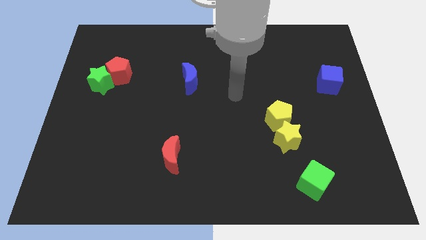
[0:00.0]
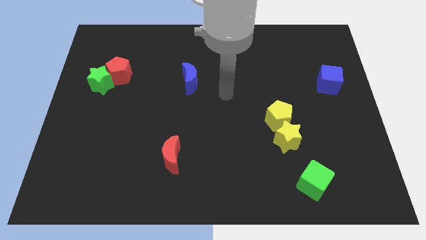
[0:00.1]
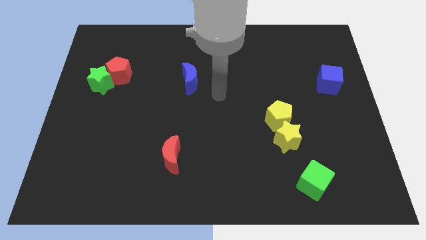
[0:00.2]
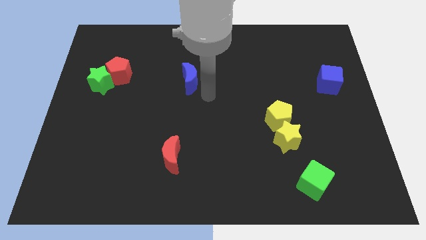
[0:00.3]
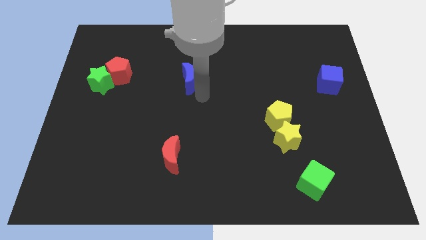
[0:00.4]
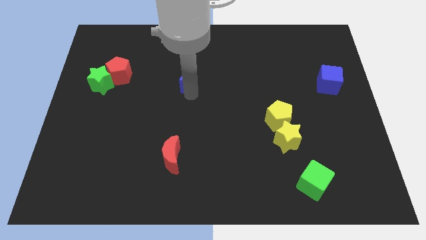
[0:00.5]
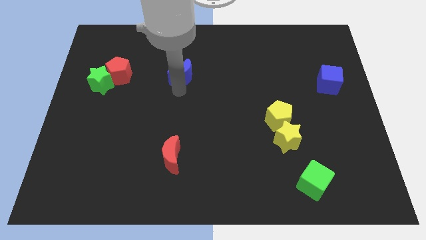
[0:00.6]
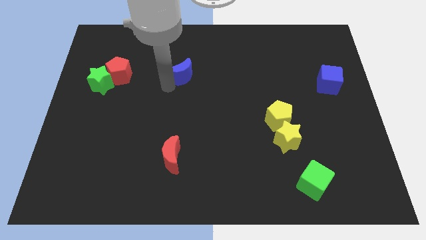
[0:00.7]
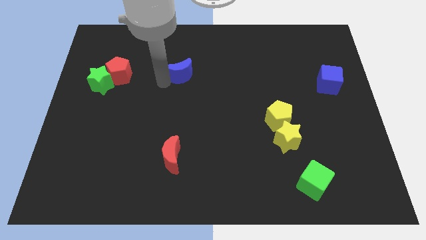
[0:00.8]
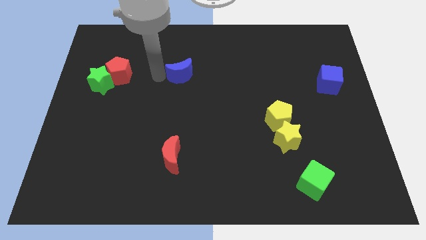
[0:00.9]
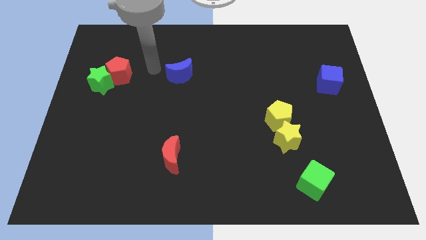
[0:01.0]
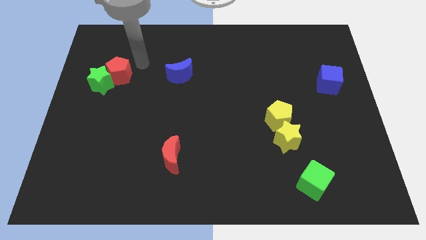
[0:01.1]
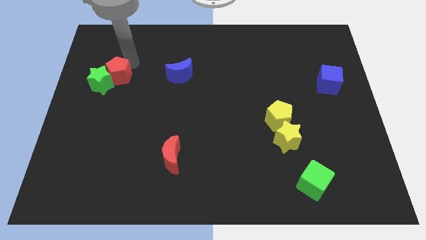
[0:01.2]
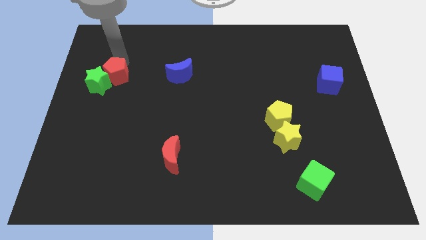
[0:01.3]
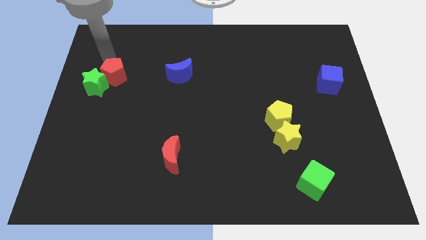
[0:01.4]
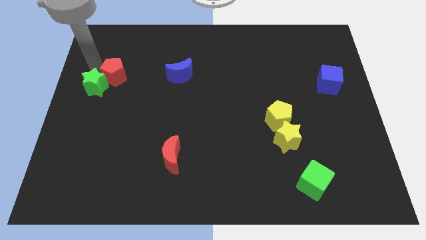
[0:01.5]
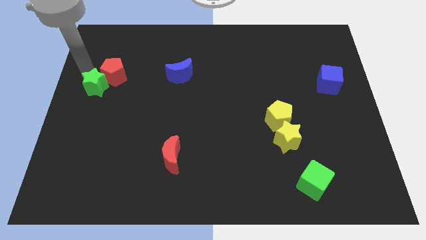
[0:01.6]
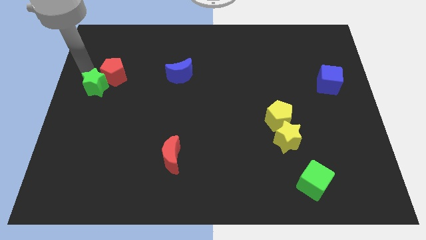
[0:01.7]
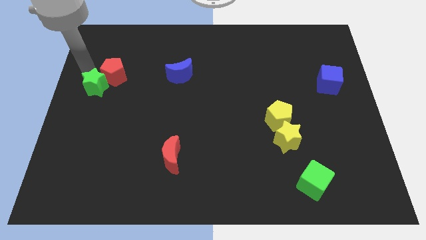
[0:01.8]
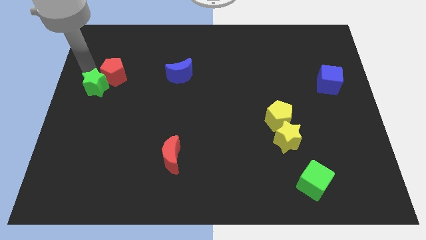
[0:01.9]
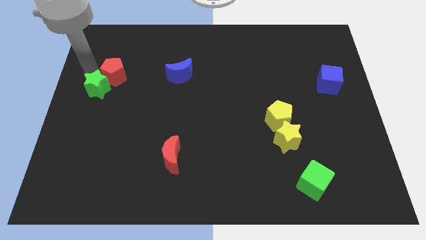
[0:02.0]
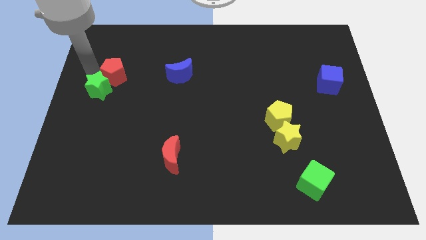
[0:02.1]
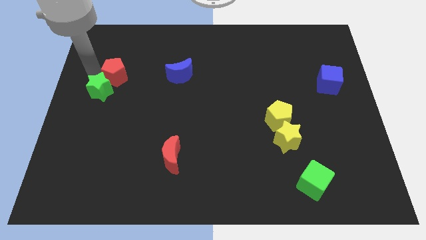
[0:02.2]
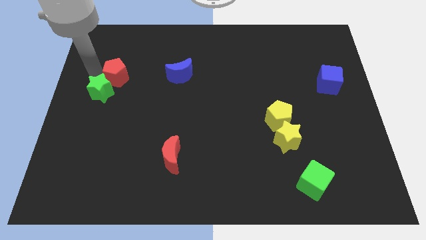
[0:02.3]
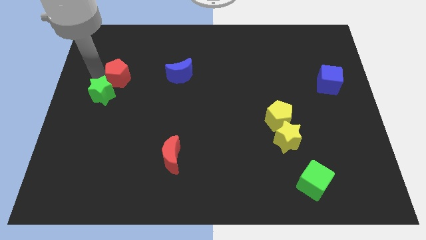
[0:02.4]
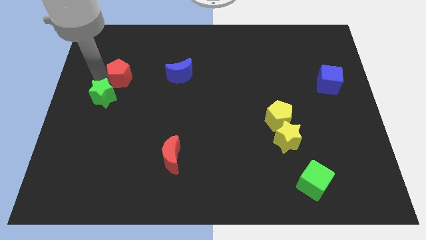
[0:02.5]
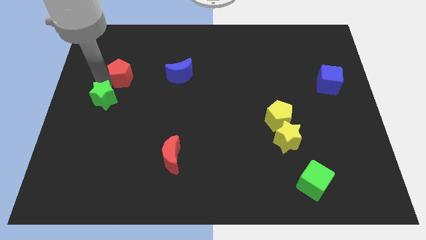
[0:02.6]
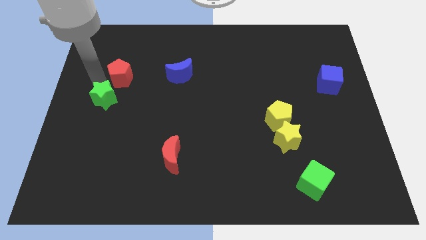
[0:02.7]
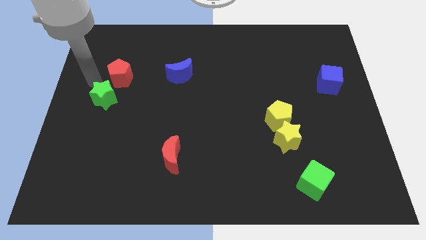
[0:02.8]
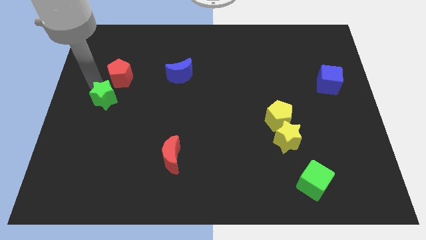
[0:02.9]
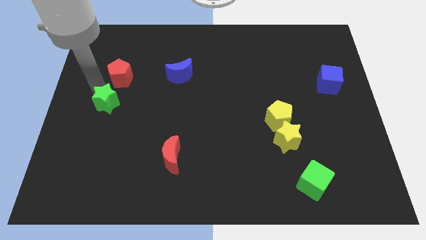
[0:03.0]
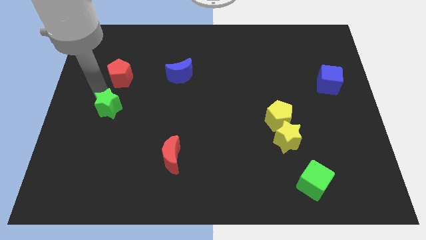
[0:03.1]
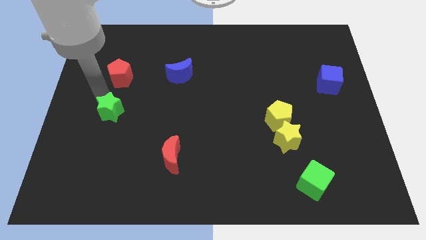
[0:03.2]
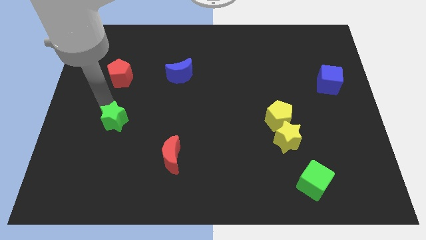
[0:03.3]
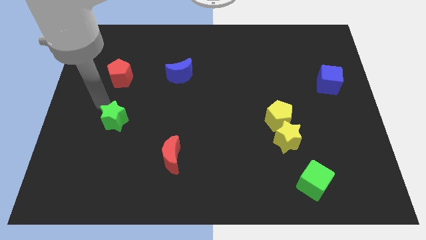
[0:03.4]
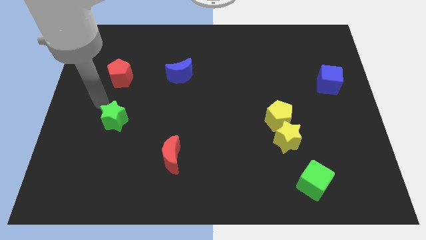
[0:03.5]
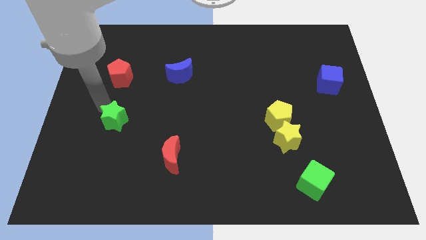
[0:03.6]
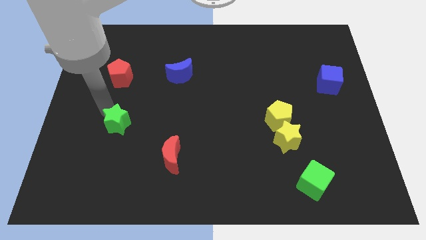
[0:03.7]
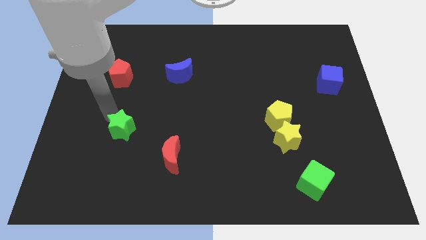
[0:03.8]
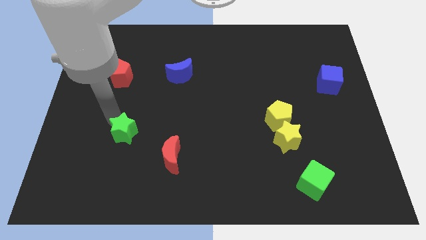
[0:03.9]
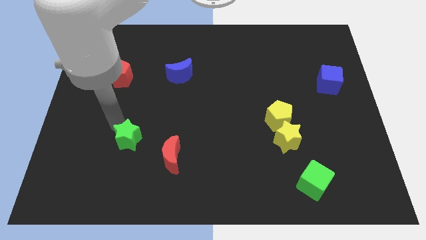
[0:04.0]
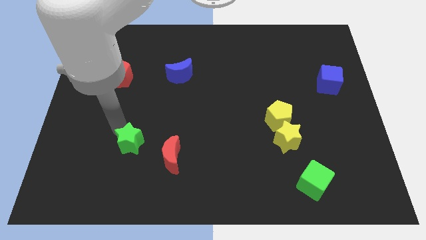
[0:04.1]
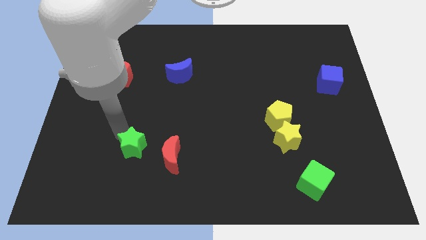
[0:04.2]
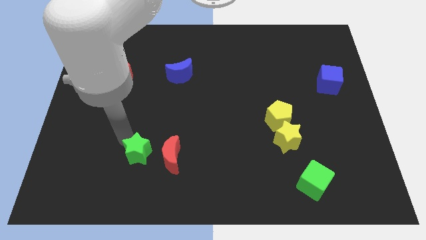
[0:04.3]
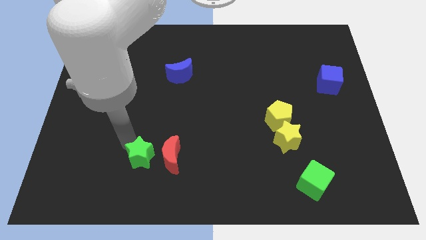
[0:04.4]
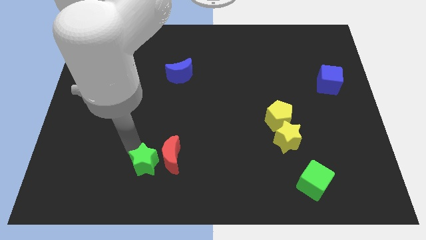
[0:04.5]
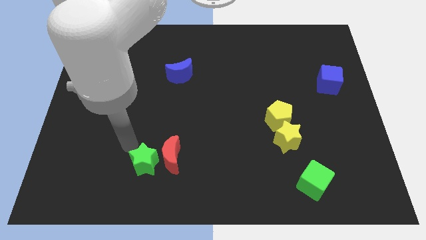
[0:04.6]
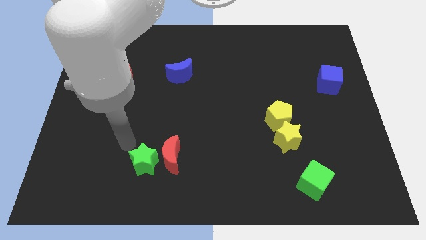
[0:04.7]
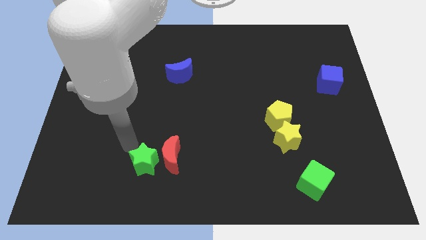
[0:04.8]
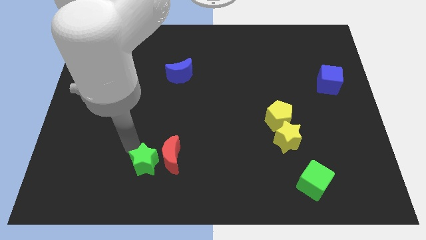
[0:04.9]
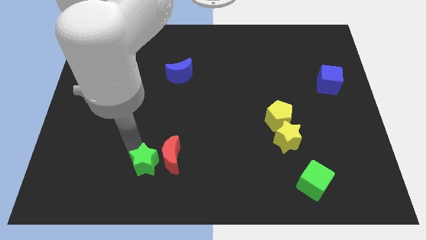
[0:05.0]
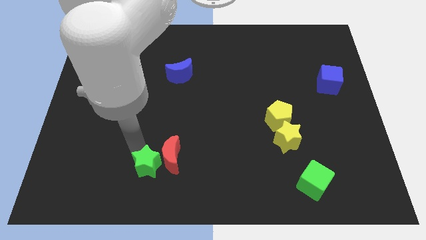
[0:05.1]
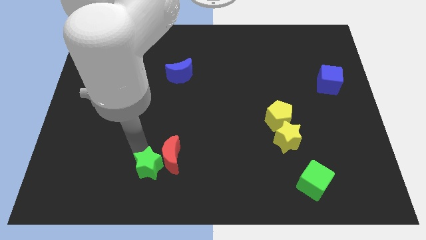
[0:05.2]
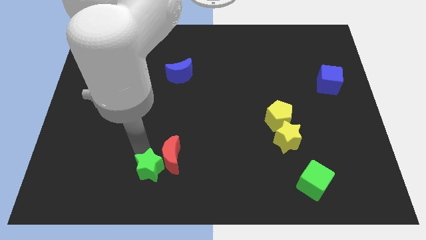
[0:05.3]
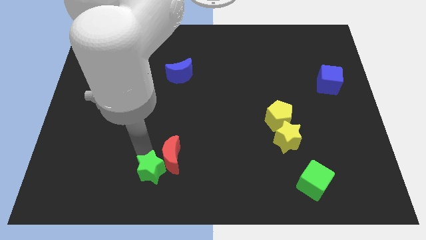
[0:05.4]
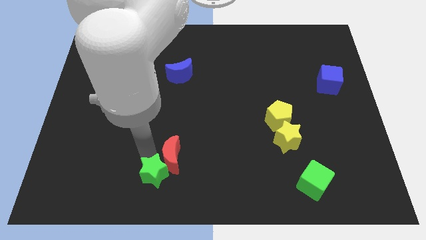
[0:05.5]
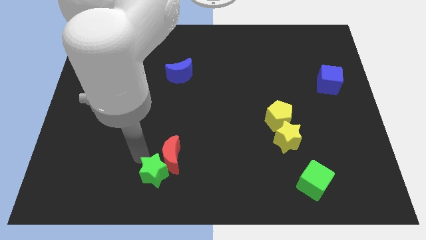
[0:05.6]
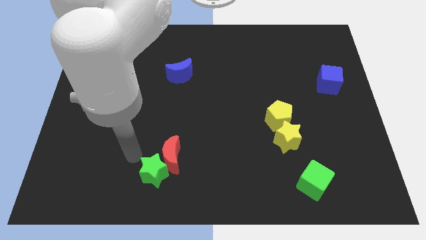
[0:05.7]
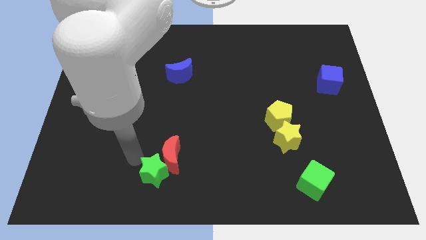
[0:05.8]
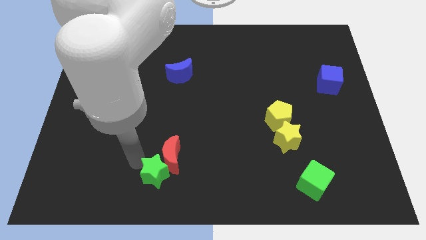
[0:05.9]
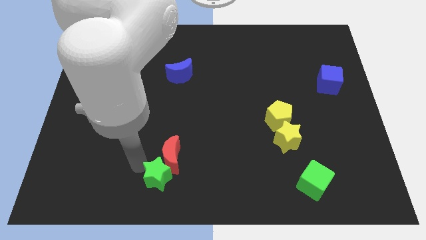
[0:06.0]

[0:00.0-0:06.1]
move the green star to the bottom side

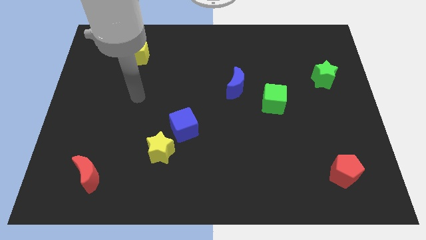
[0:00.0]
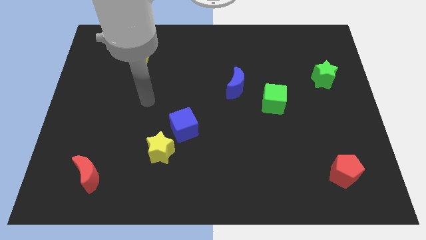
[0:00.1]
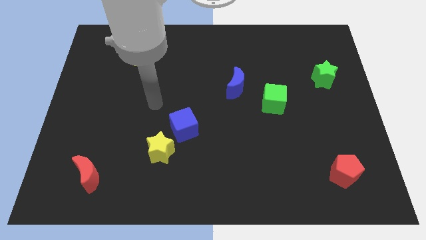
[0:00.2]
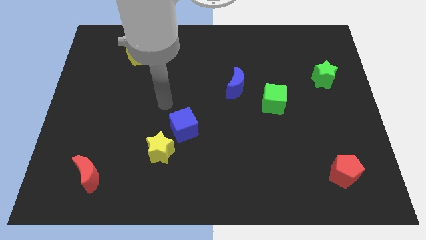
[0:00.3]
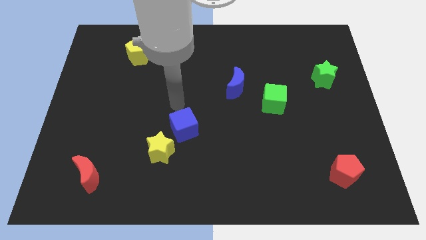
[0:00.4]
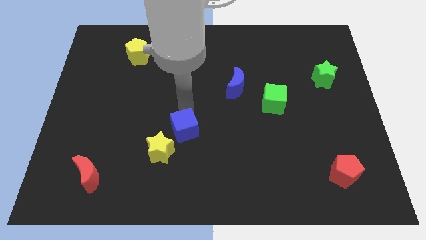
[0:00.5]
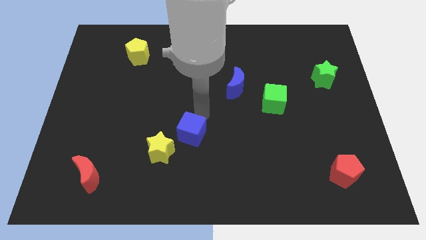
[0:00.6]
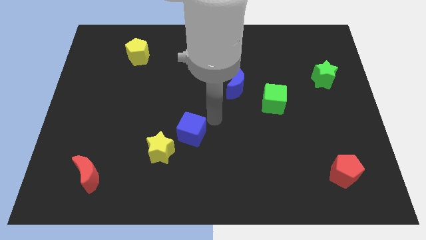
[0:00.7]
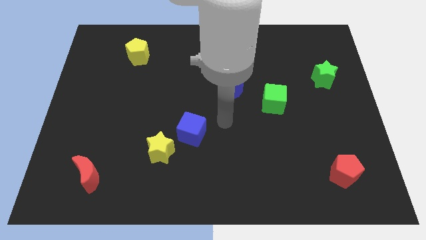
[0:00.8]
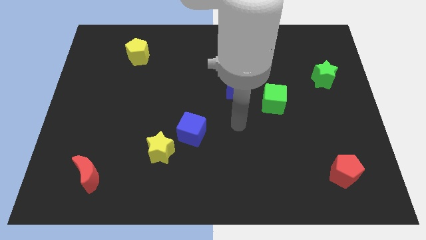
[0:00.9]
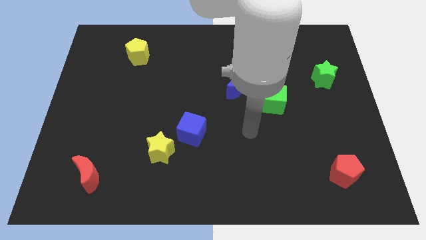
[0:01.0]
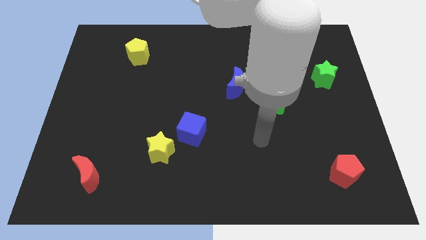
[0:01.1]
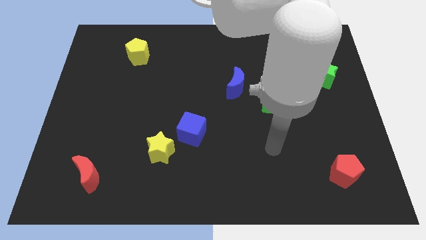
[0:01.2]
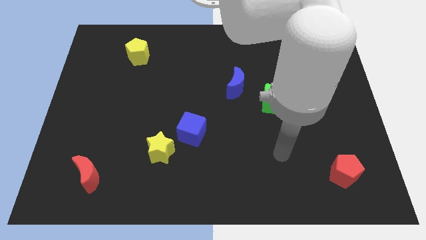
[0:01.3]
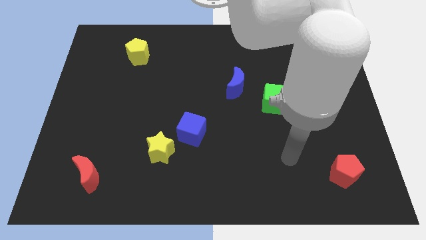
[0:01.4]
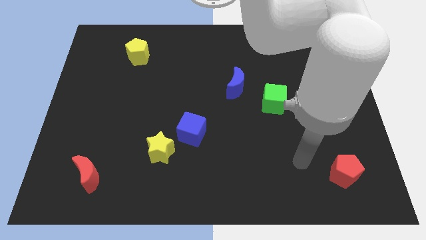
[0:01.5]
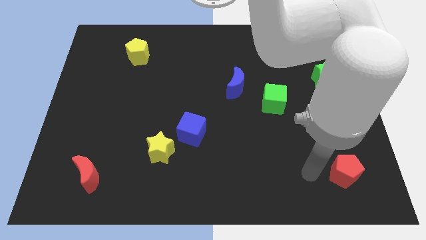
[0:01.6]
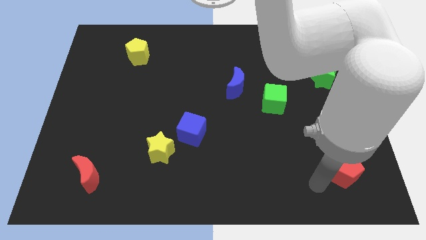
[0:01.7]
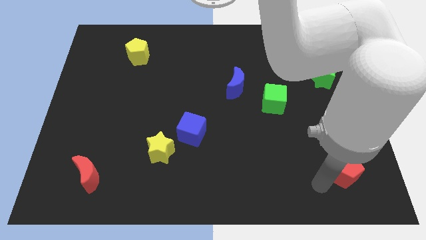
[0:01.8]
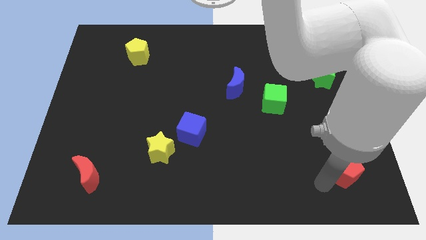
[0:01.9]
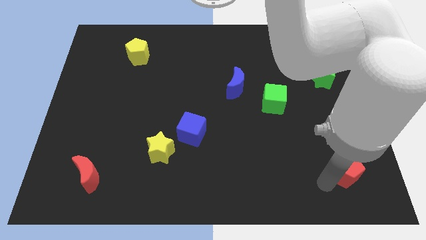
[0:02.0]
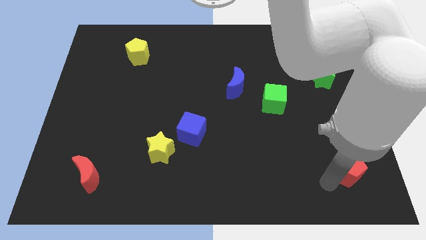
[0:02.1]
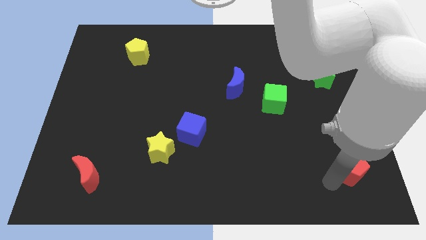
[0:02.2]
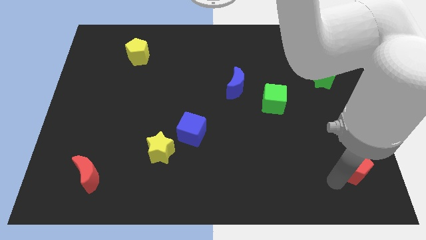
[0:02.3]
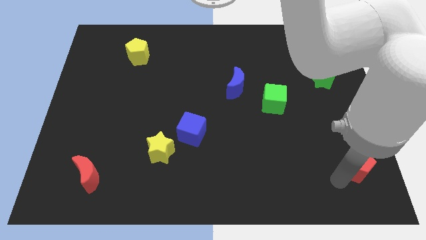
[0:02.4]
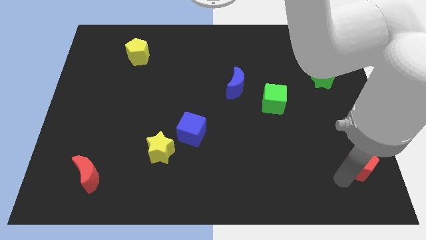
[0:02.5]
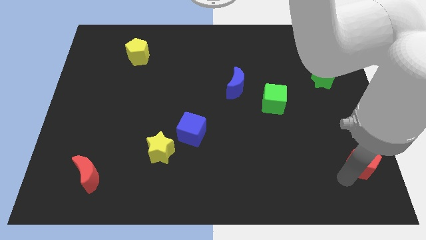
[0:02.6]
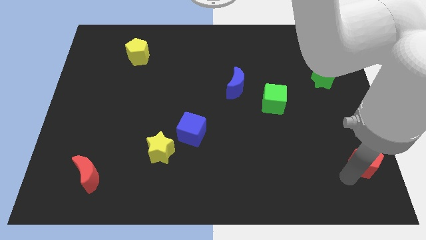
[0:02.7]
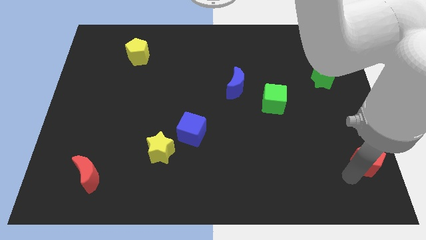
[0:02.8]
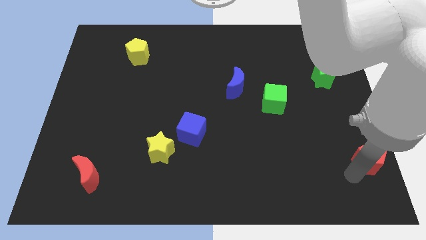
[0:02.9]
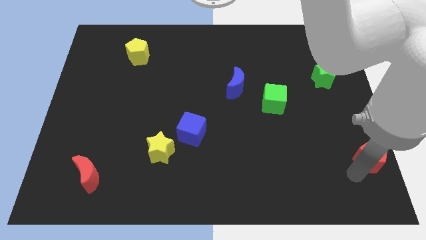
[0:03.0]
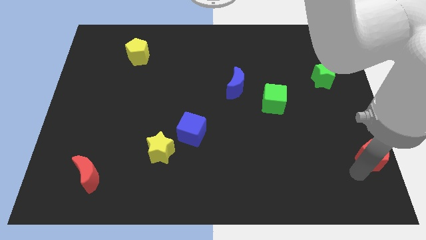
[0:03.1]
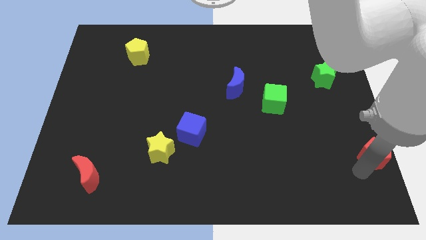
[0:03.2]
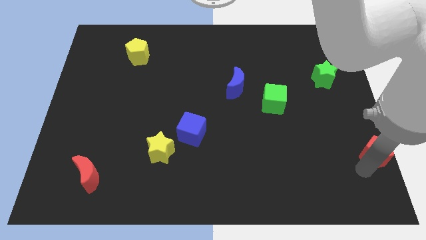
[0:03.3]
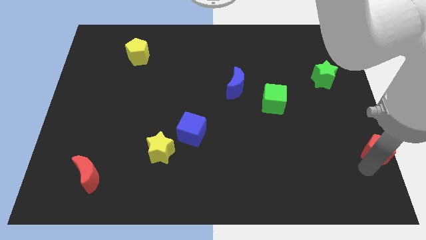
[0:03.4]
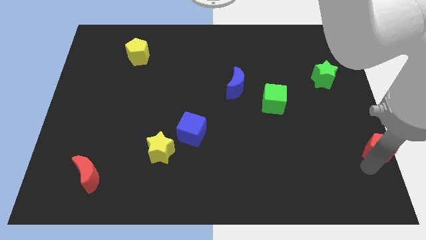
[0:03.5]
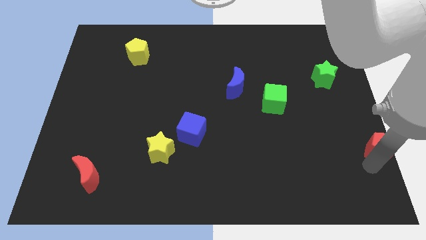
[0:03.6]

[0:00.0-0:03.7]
put the red pentagon to the right side
